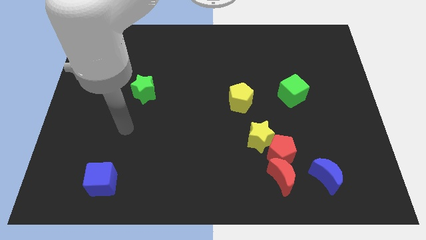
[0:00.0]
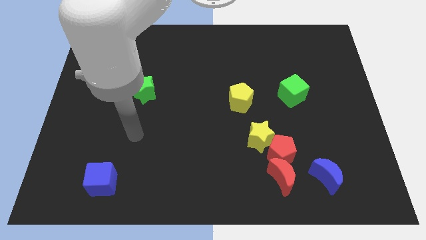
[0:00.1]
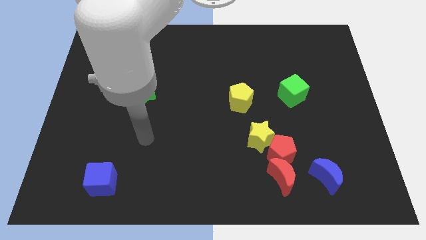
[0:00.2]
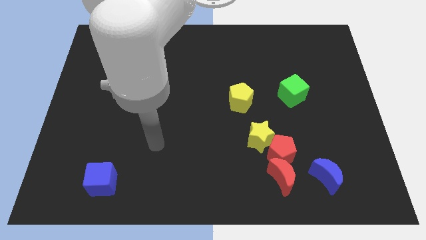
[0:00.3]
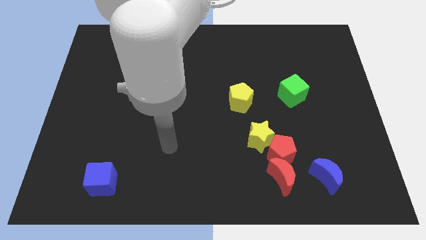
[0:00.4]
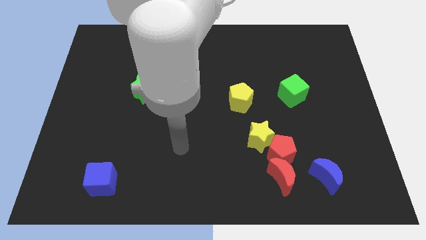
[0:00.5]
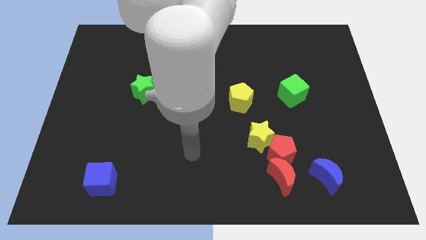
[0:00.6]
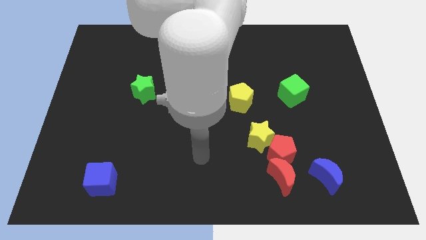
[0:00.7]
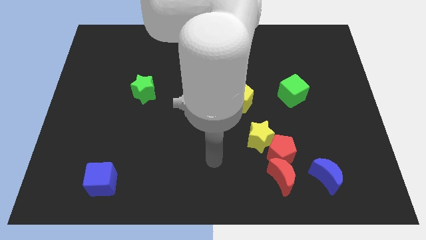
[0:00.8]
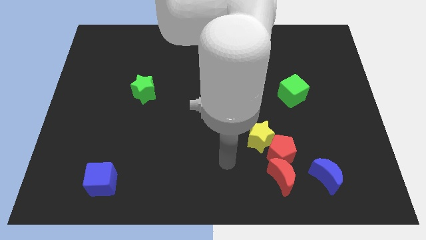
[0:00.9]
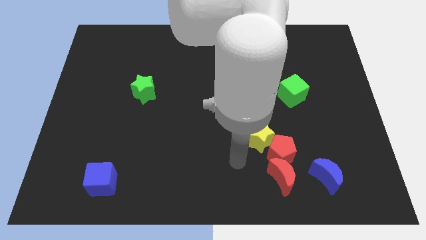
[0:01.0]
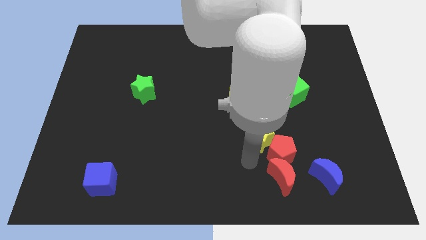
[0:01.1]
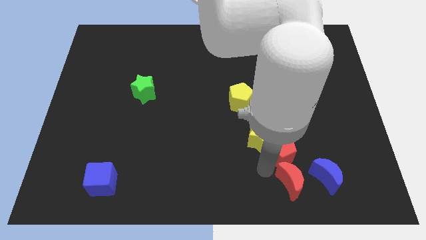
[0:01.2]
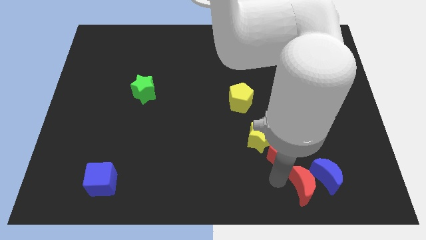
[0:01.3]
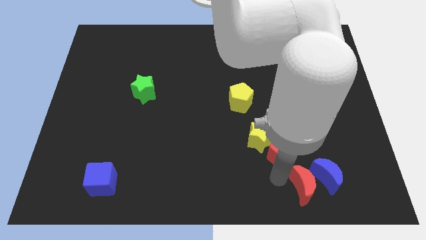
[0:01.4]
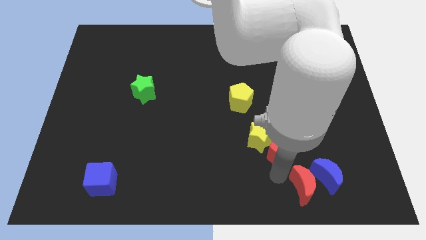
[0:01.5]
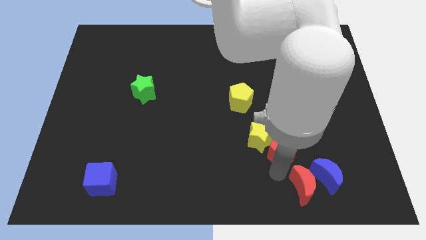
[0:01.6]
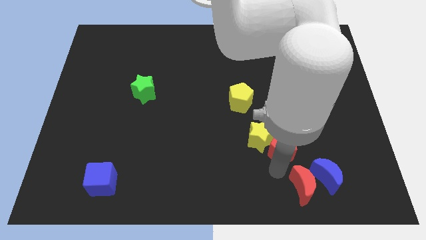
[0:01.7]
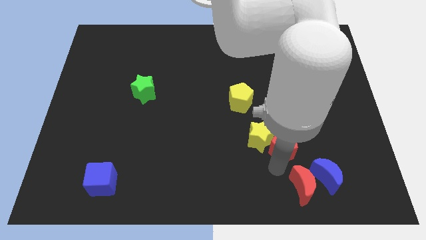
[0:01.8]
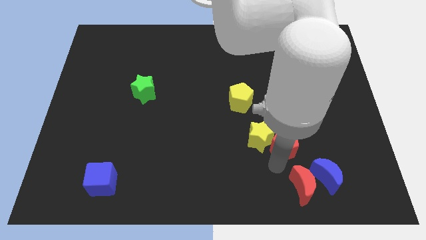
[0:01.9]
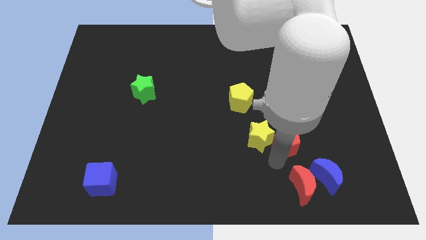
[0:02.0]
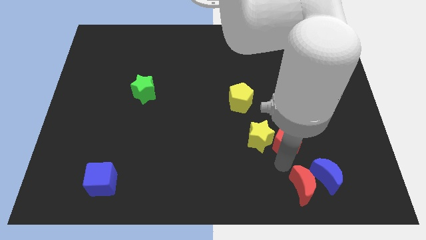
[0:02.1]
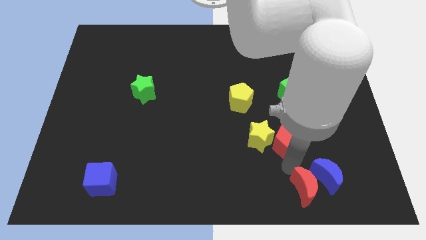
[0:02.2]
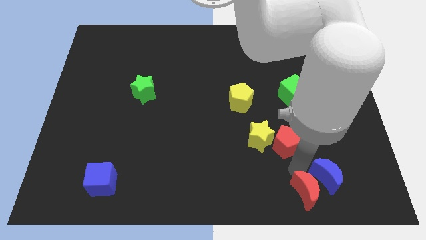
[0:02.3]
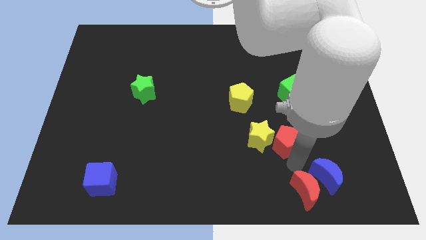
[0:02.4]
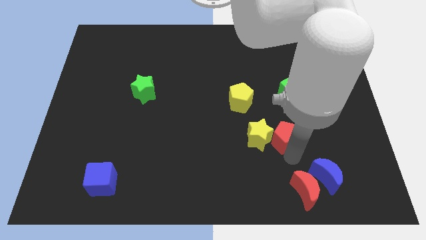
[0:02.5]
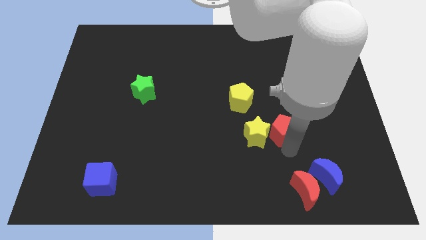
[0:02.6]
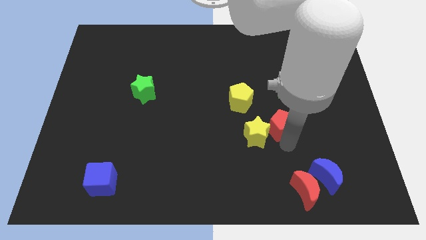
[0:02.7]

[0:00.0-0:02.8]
separate the red pentagon from the clump

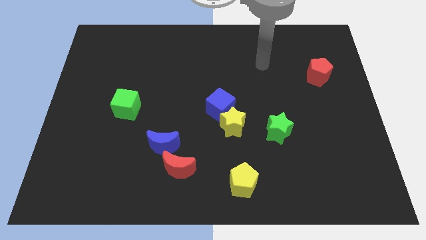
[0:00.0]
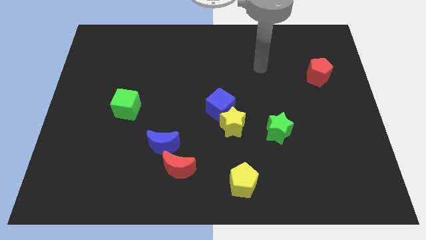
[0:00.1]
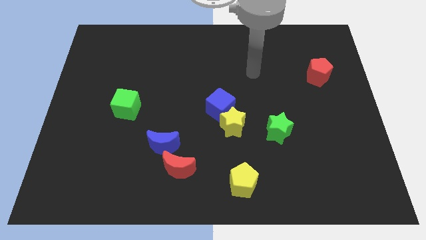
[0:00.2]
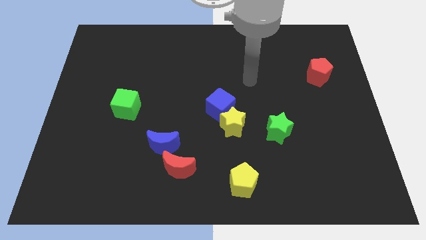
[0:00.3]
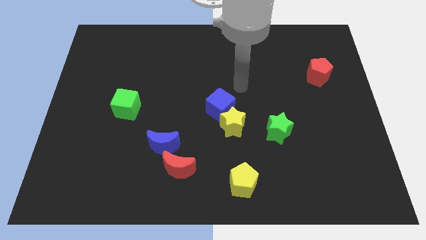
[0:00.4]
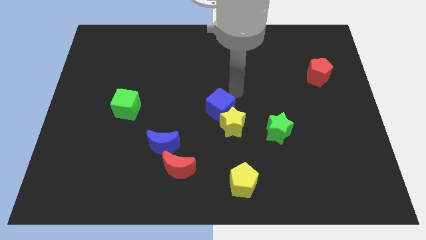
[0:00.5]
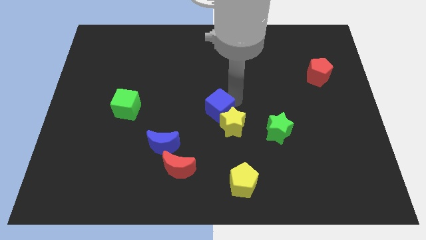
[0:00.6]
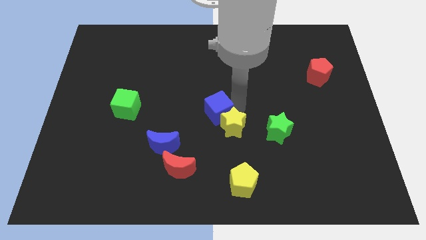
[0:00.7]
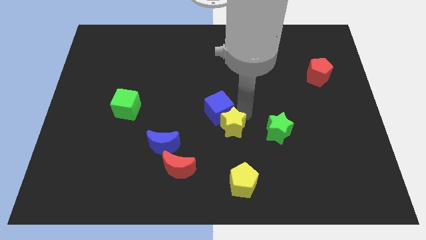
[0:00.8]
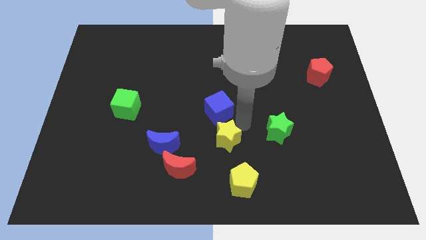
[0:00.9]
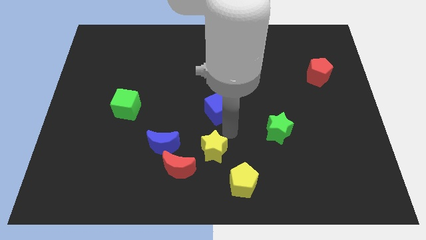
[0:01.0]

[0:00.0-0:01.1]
move the blue cube away from the yellow star

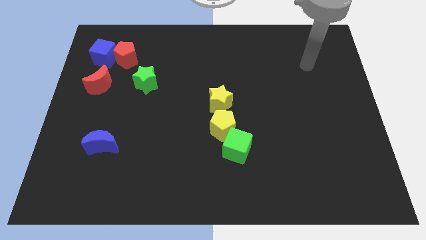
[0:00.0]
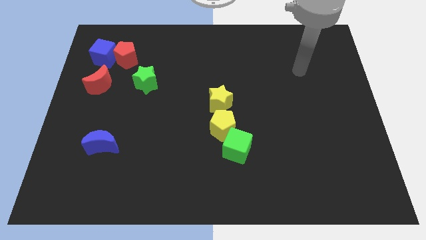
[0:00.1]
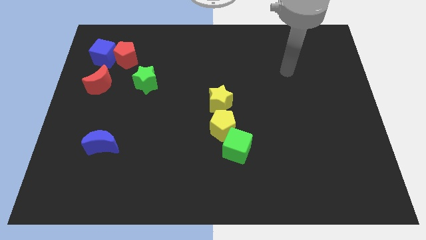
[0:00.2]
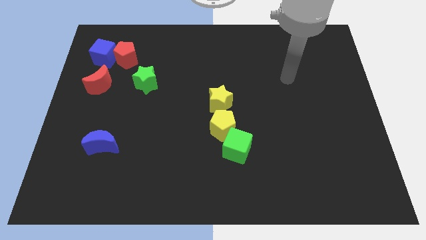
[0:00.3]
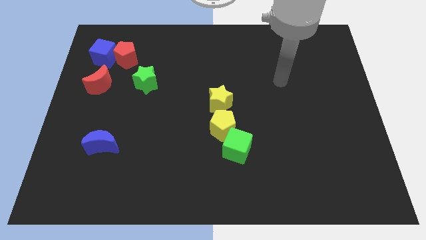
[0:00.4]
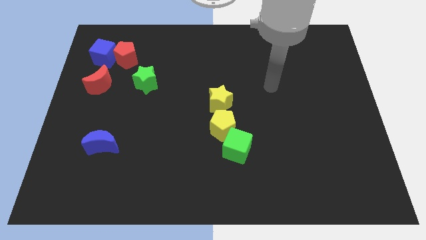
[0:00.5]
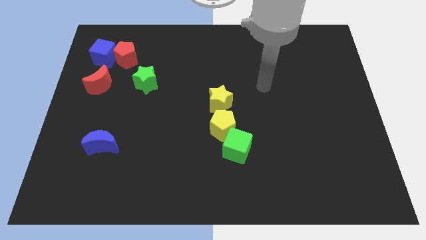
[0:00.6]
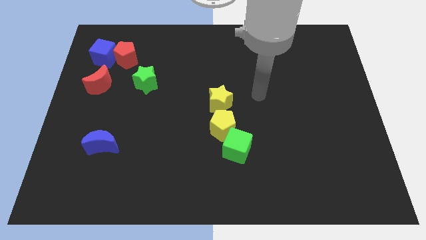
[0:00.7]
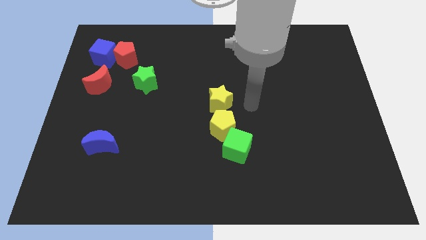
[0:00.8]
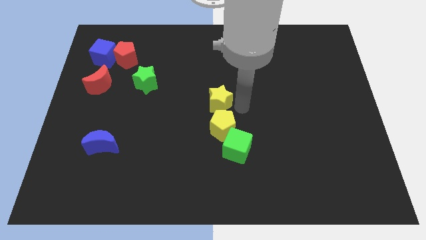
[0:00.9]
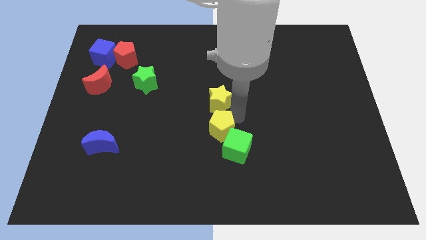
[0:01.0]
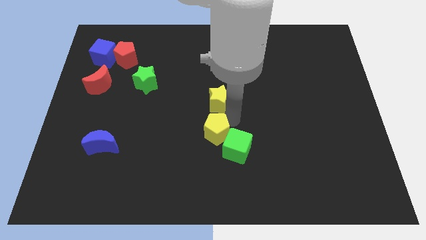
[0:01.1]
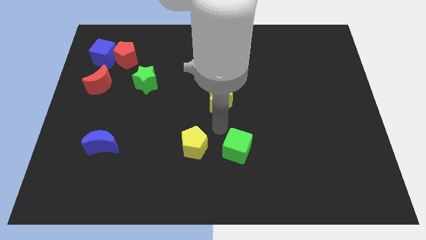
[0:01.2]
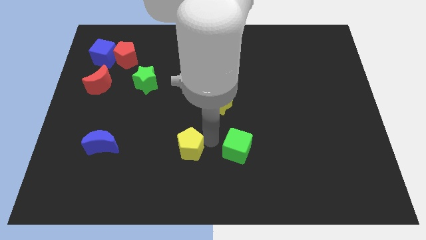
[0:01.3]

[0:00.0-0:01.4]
move the green cube away from the yellow pentagon

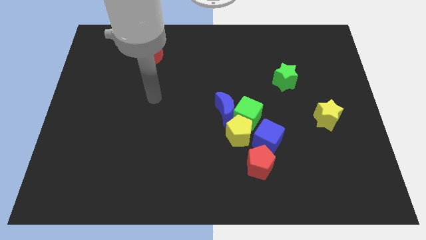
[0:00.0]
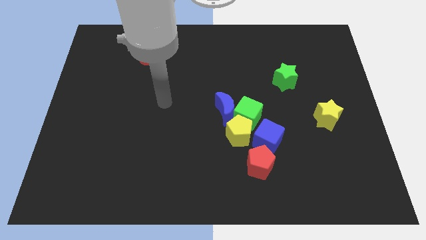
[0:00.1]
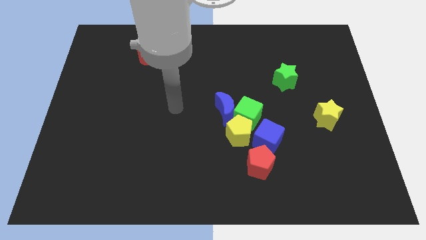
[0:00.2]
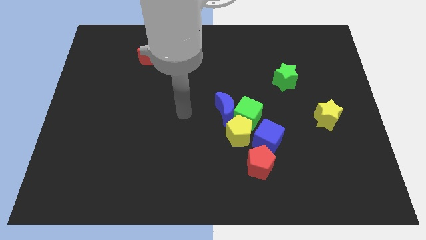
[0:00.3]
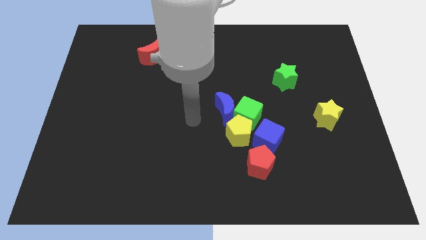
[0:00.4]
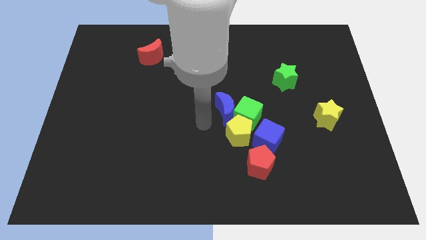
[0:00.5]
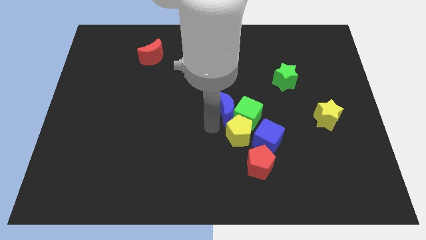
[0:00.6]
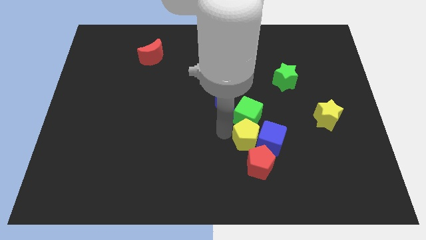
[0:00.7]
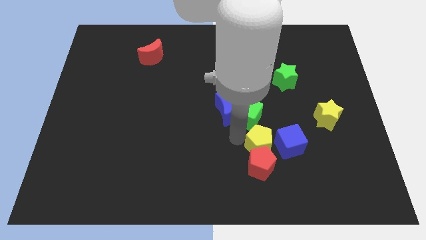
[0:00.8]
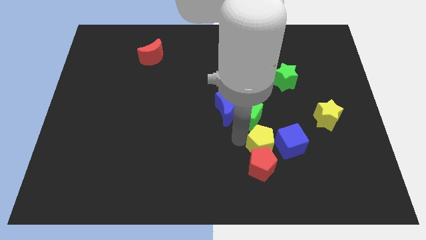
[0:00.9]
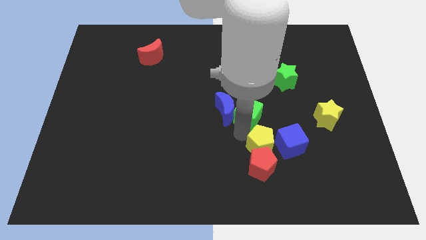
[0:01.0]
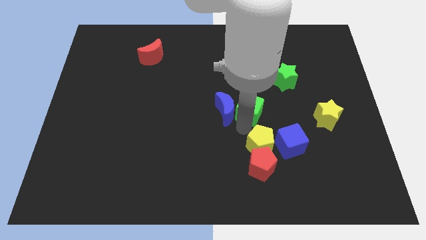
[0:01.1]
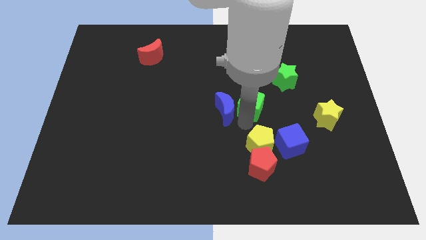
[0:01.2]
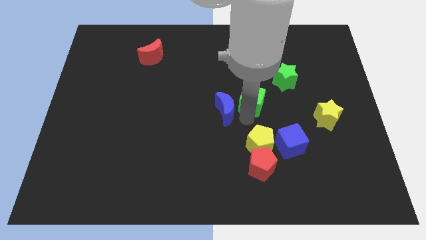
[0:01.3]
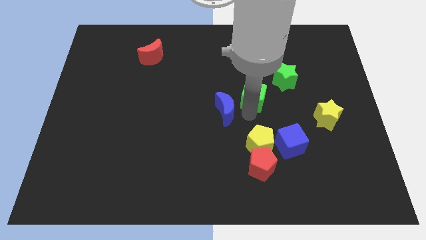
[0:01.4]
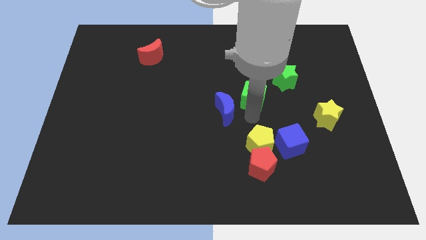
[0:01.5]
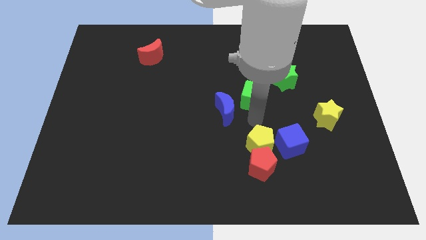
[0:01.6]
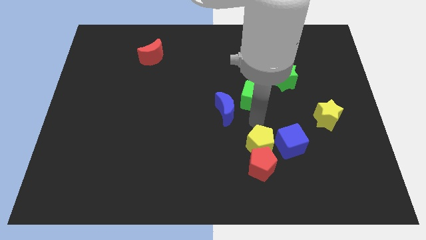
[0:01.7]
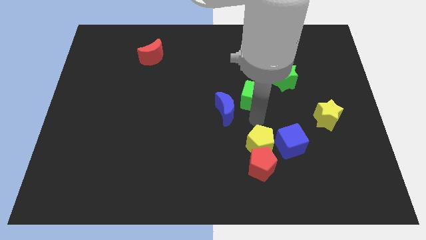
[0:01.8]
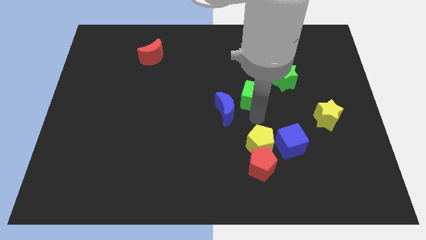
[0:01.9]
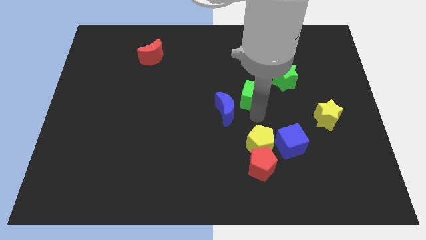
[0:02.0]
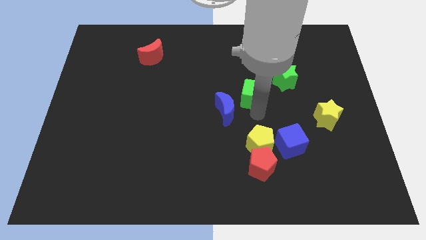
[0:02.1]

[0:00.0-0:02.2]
move the green cube away from the blue moon, yellow pentagon, and blue cube

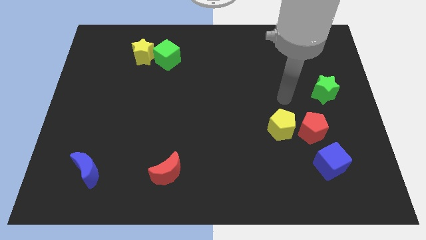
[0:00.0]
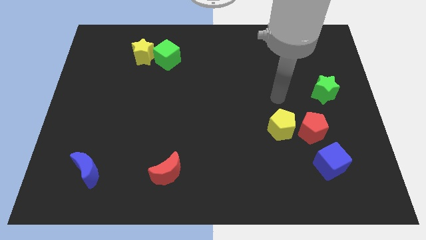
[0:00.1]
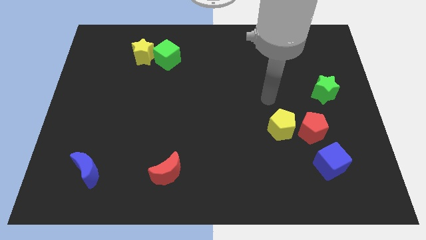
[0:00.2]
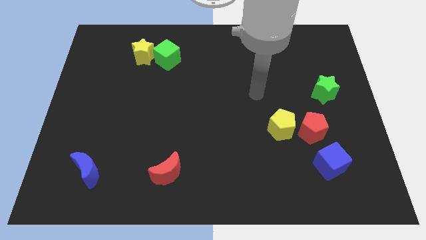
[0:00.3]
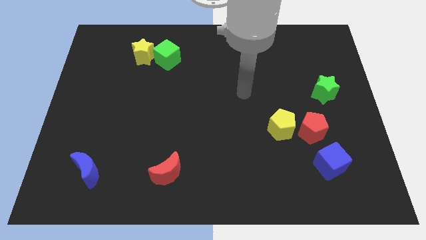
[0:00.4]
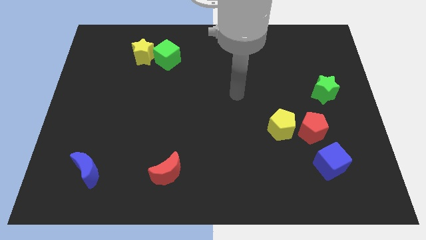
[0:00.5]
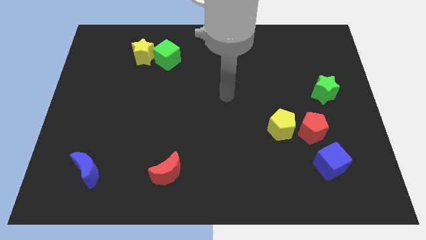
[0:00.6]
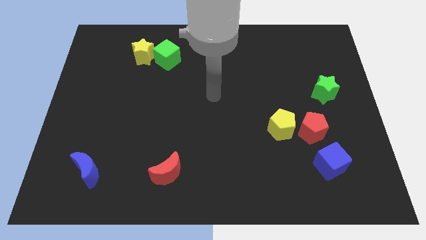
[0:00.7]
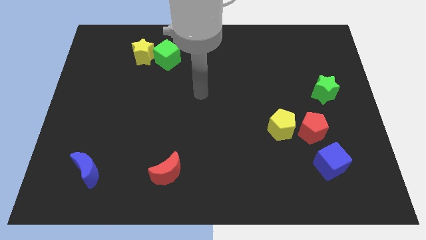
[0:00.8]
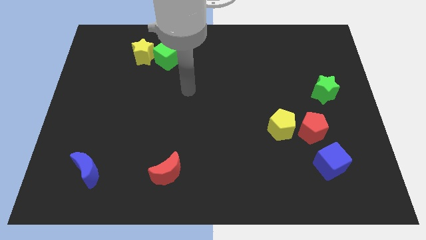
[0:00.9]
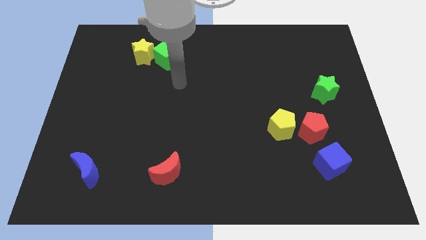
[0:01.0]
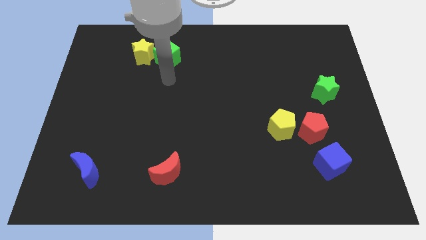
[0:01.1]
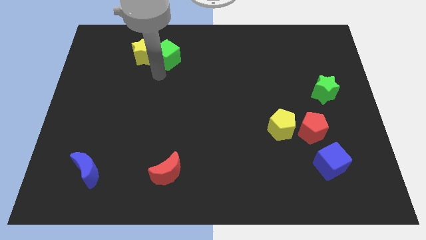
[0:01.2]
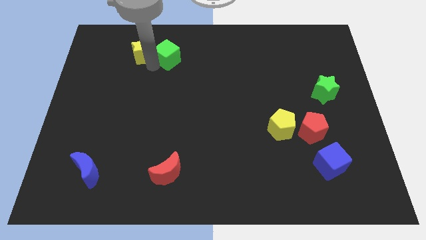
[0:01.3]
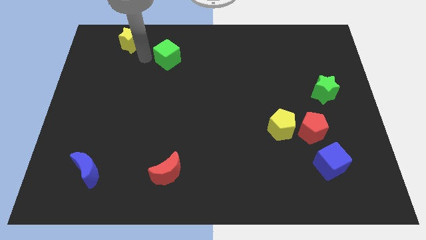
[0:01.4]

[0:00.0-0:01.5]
pull the green cube apart from the yellow star

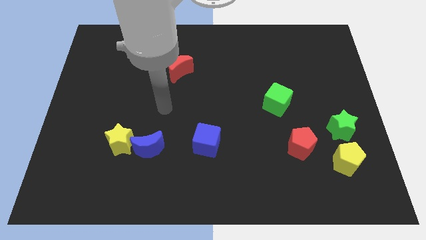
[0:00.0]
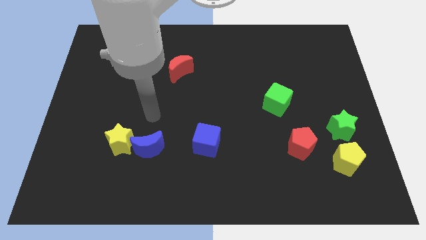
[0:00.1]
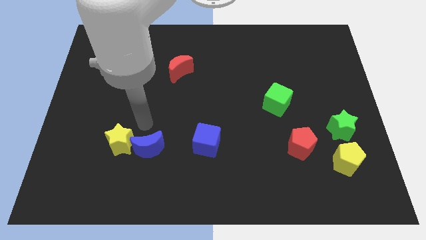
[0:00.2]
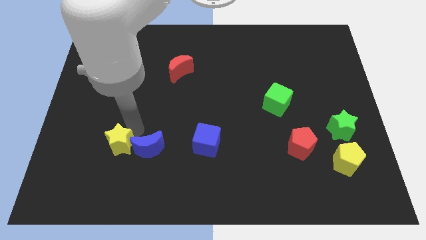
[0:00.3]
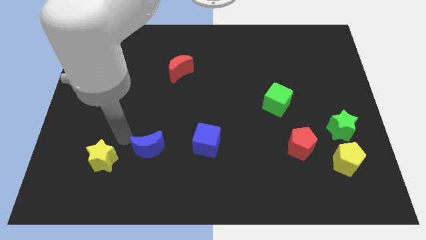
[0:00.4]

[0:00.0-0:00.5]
move the blue moon away from the yellow star
